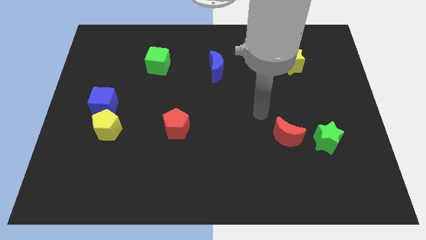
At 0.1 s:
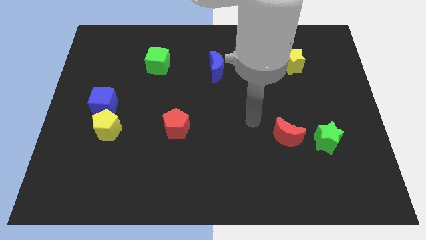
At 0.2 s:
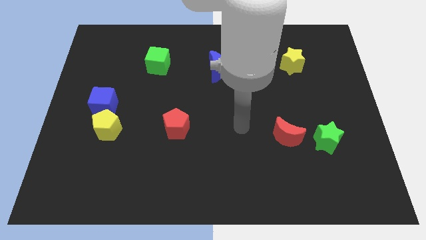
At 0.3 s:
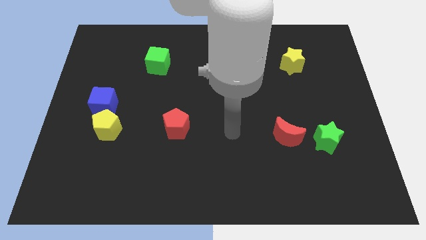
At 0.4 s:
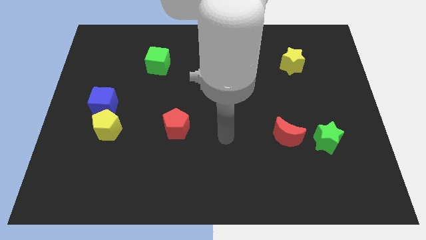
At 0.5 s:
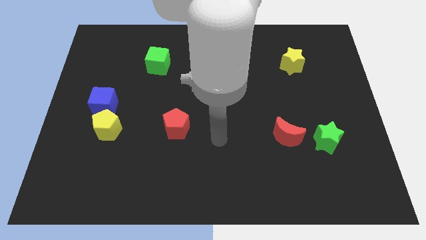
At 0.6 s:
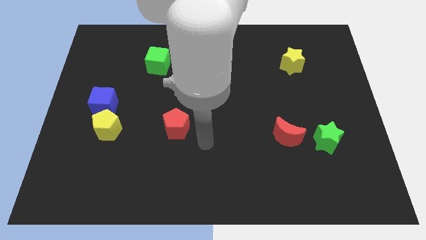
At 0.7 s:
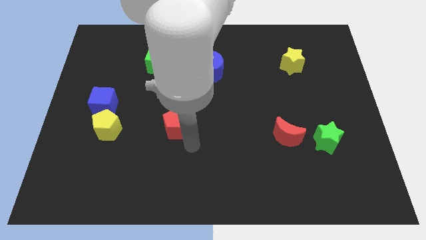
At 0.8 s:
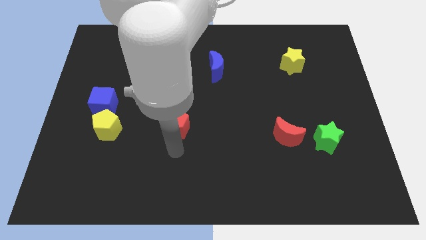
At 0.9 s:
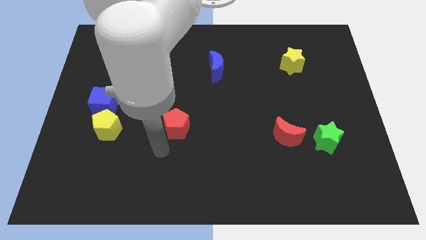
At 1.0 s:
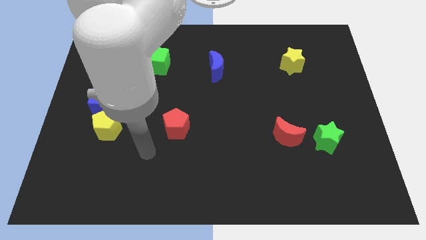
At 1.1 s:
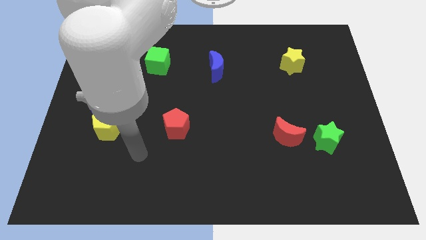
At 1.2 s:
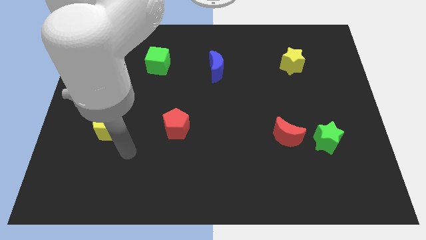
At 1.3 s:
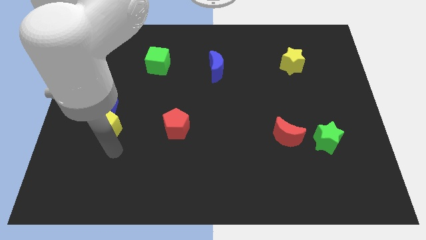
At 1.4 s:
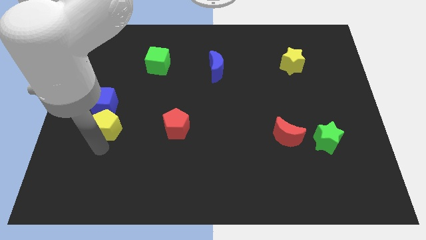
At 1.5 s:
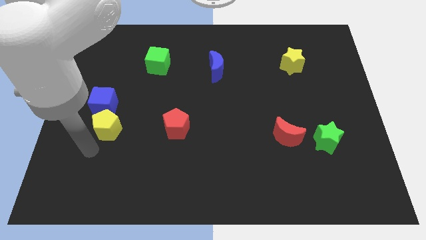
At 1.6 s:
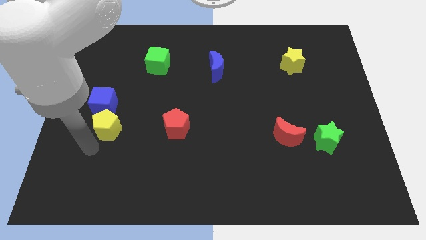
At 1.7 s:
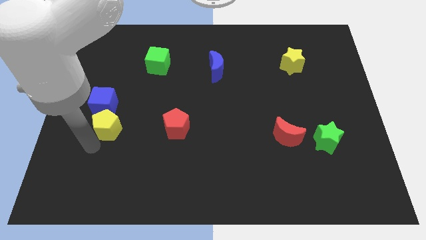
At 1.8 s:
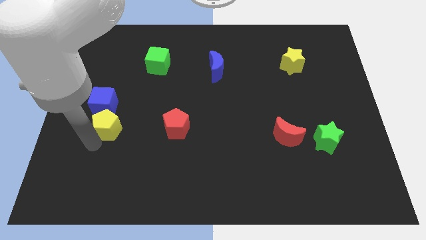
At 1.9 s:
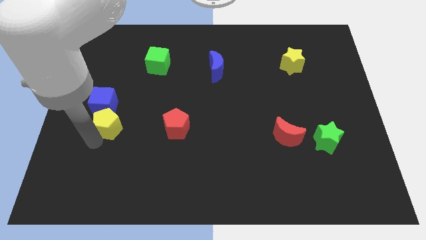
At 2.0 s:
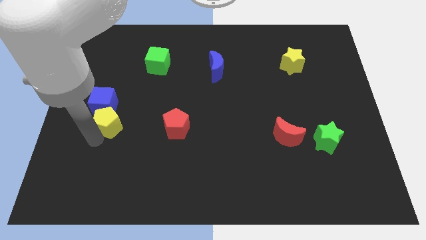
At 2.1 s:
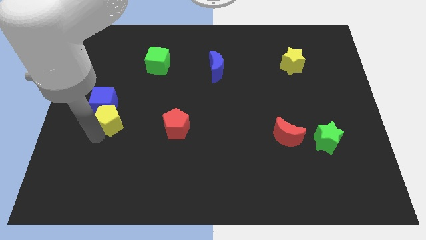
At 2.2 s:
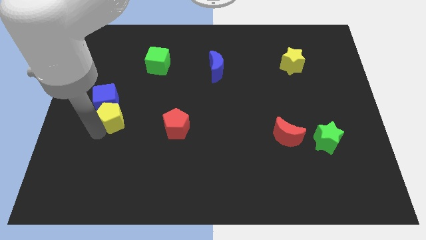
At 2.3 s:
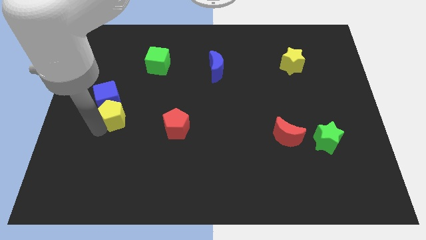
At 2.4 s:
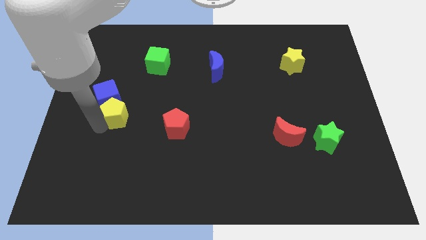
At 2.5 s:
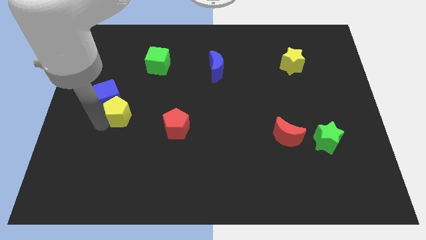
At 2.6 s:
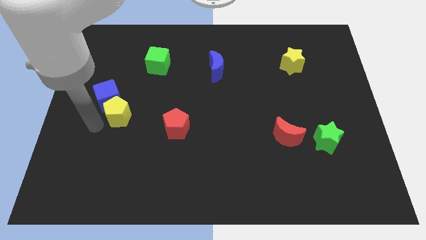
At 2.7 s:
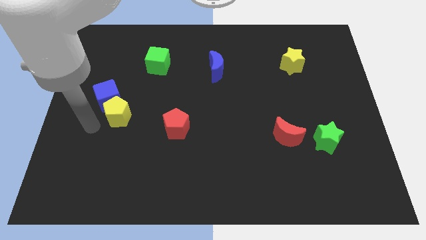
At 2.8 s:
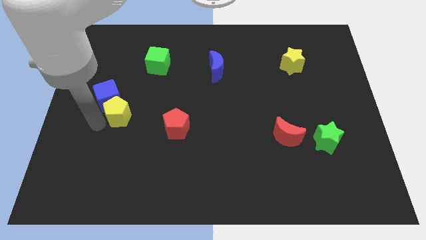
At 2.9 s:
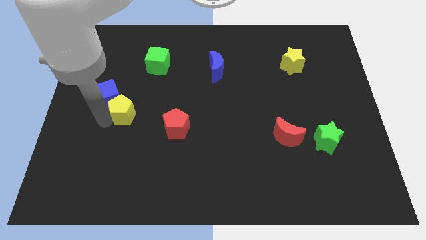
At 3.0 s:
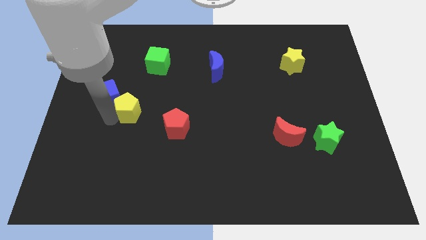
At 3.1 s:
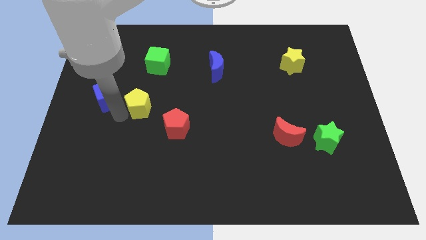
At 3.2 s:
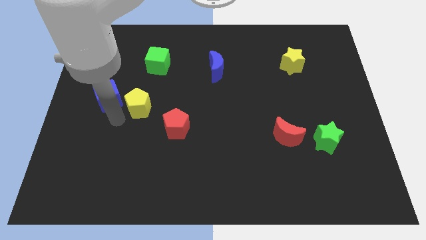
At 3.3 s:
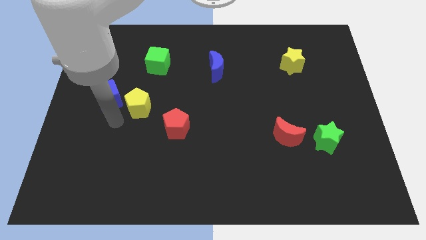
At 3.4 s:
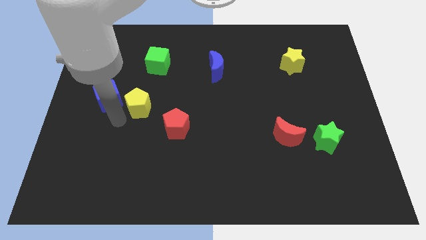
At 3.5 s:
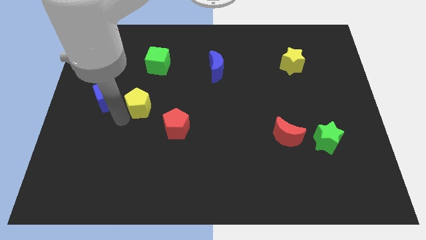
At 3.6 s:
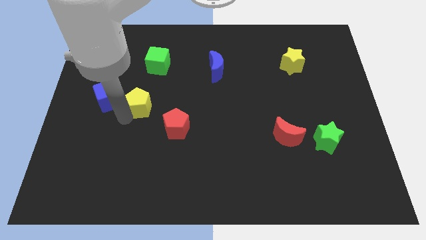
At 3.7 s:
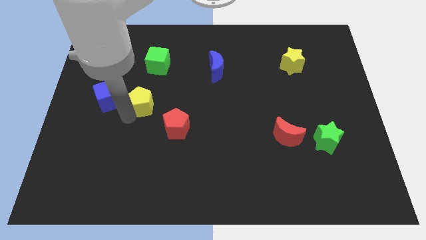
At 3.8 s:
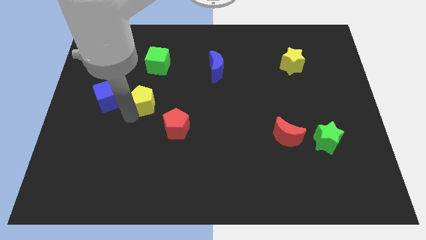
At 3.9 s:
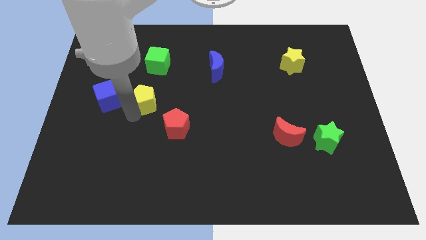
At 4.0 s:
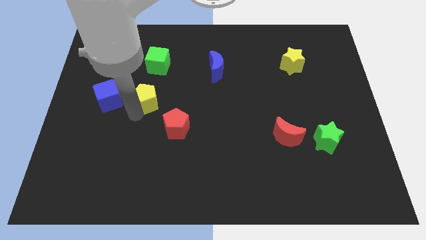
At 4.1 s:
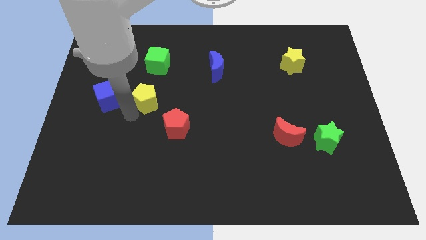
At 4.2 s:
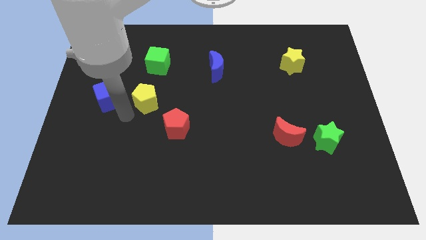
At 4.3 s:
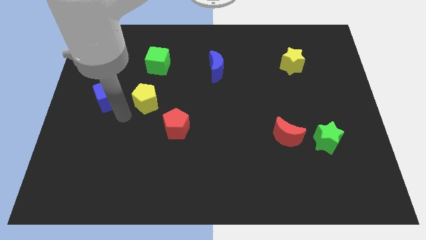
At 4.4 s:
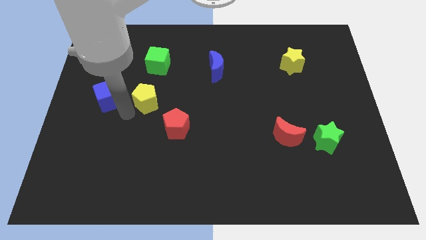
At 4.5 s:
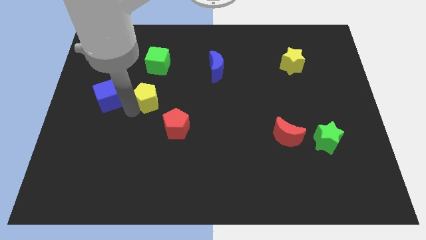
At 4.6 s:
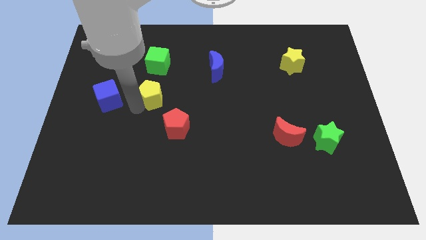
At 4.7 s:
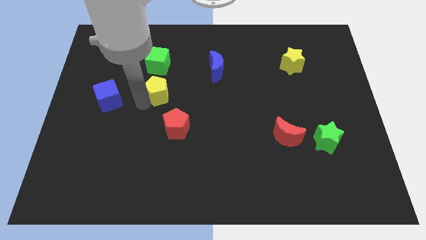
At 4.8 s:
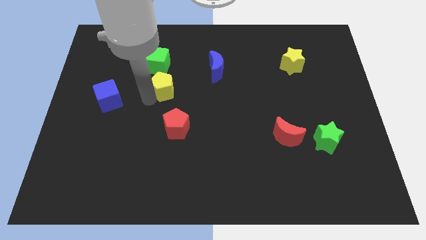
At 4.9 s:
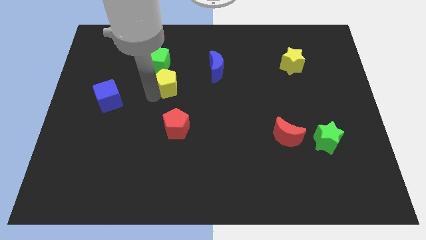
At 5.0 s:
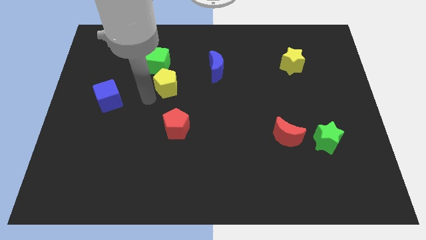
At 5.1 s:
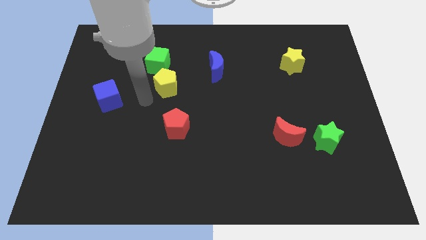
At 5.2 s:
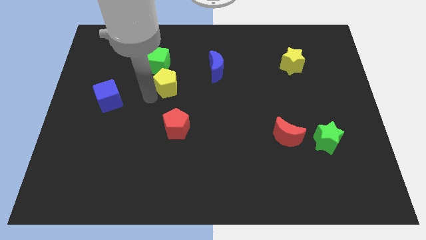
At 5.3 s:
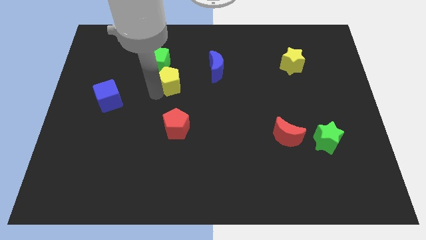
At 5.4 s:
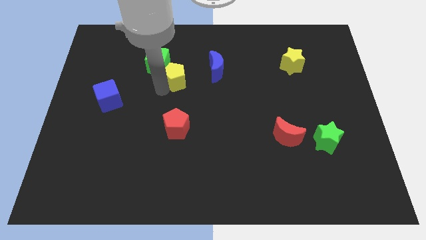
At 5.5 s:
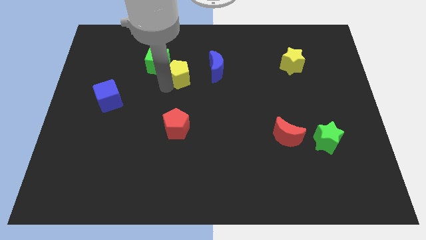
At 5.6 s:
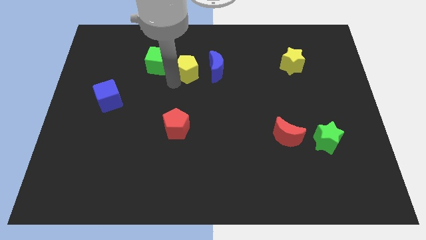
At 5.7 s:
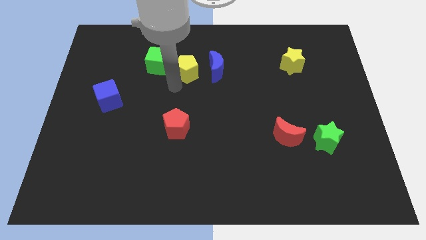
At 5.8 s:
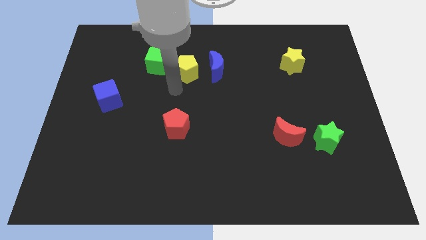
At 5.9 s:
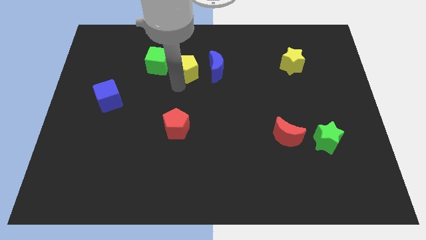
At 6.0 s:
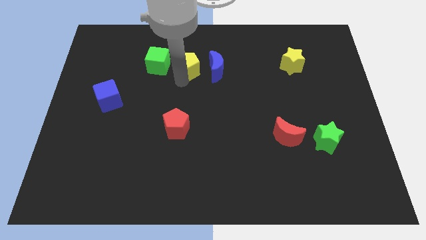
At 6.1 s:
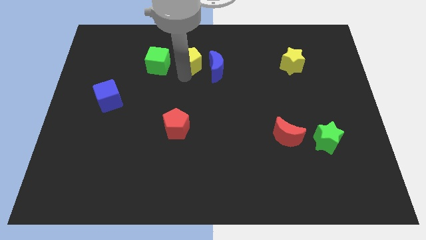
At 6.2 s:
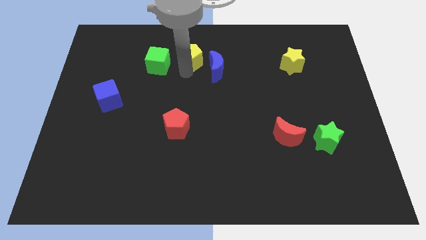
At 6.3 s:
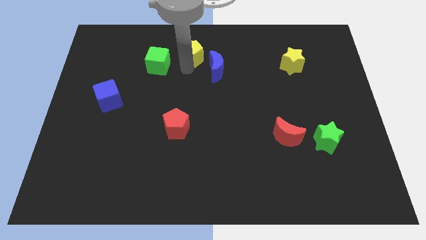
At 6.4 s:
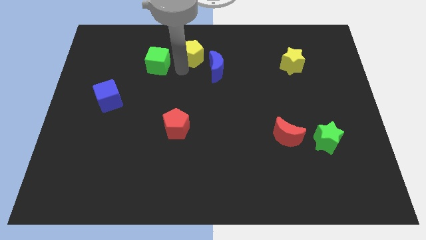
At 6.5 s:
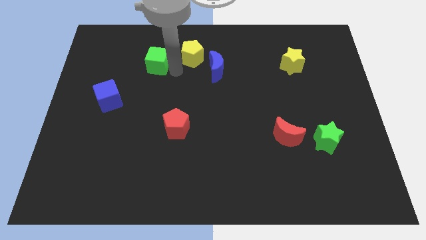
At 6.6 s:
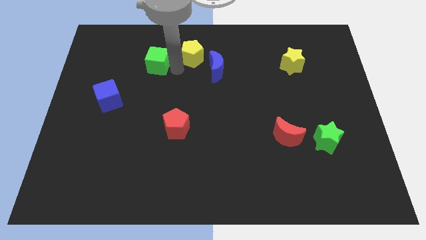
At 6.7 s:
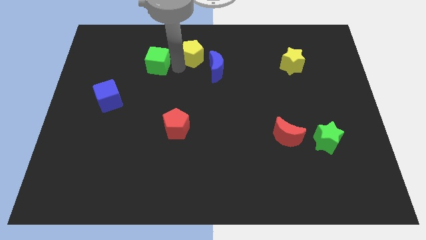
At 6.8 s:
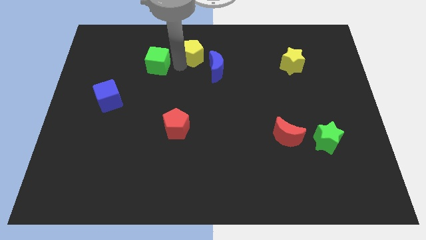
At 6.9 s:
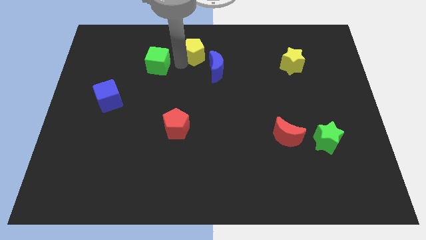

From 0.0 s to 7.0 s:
put the yellow pentagon to the top side
